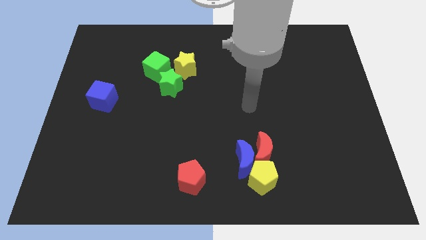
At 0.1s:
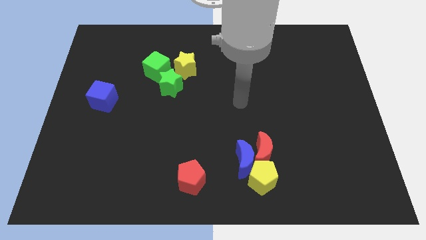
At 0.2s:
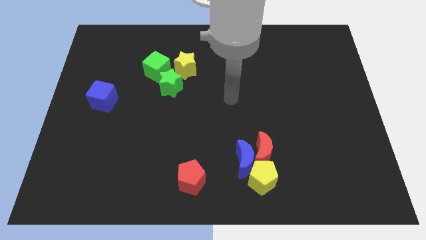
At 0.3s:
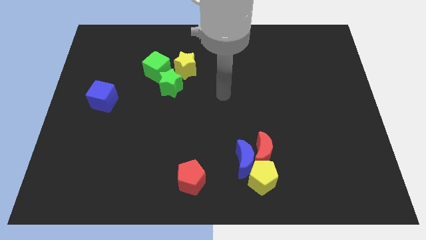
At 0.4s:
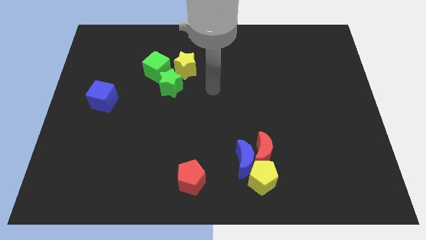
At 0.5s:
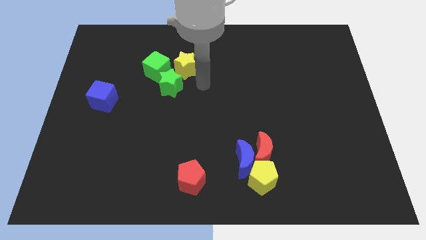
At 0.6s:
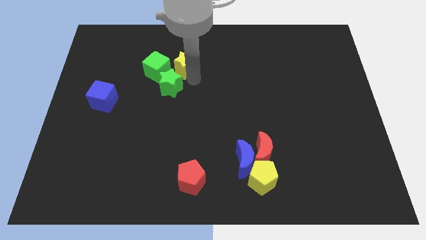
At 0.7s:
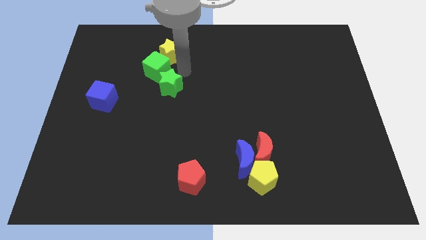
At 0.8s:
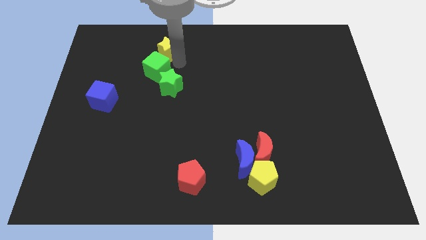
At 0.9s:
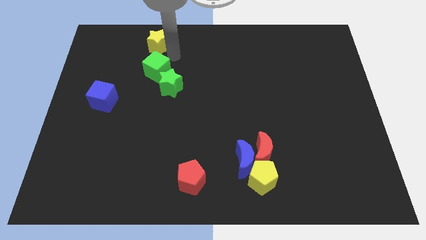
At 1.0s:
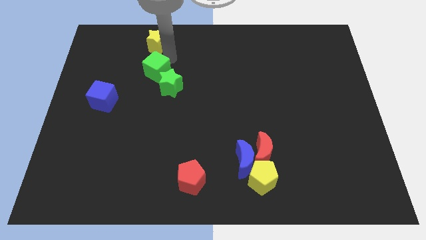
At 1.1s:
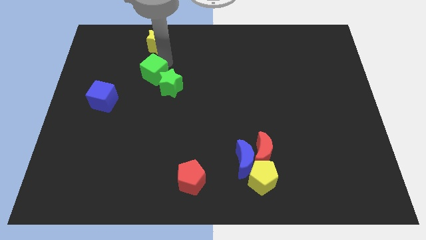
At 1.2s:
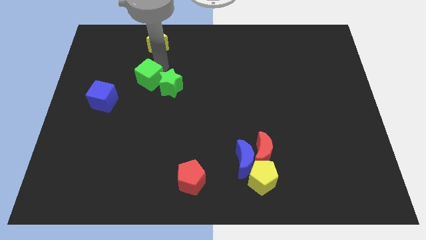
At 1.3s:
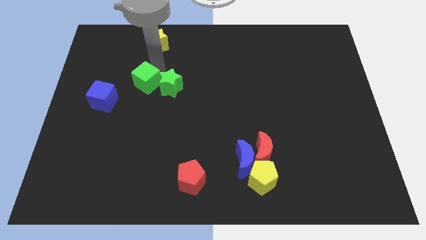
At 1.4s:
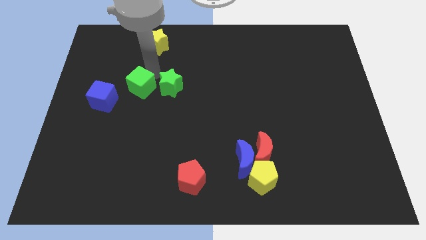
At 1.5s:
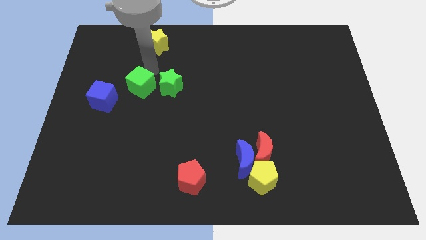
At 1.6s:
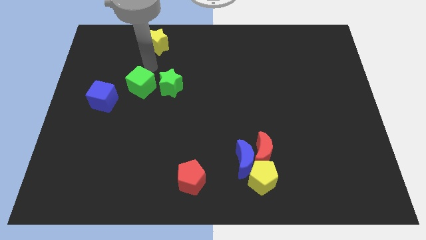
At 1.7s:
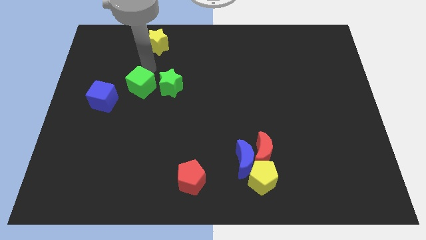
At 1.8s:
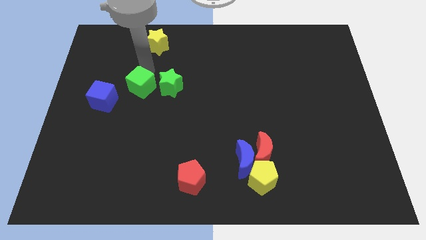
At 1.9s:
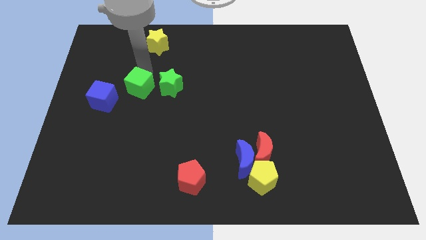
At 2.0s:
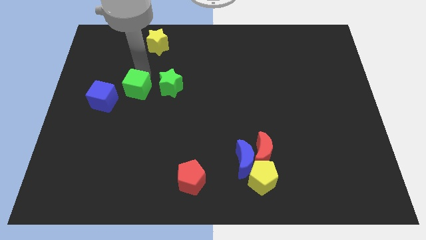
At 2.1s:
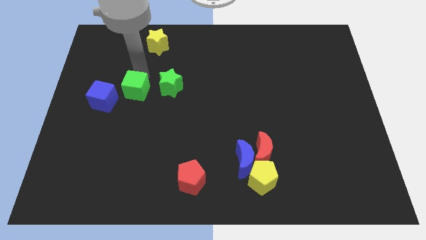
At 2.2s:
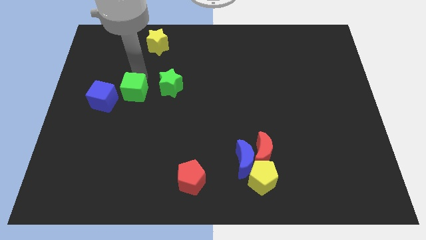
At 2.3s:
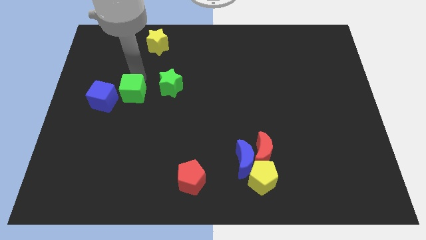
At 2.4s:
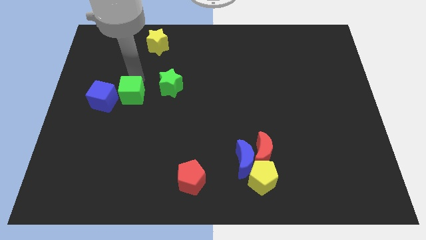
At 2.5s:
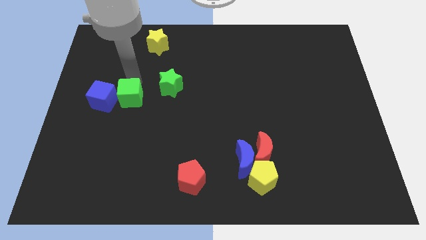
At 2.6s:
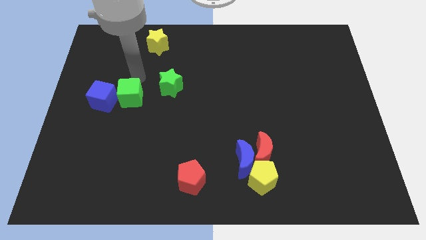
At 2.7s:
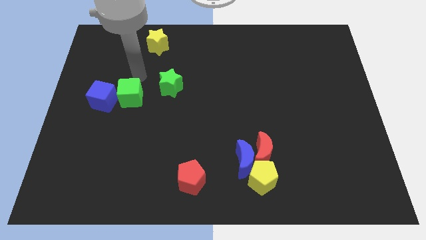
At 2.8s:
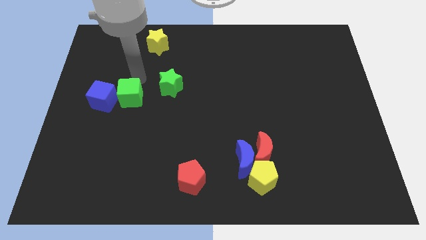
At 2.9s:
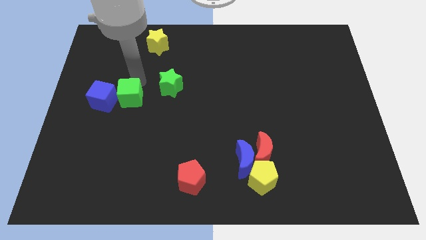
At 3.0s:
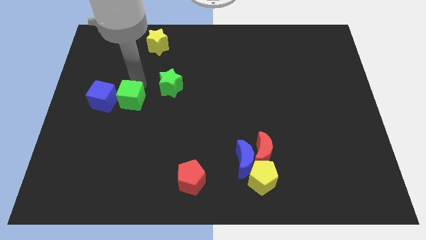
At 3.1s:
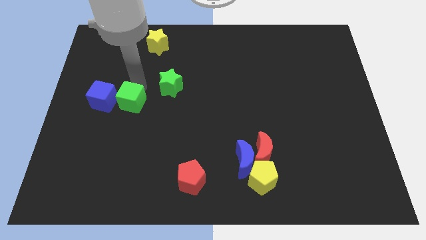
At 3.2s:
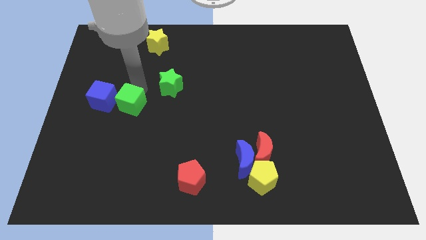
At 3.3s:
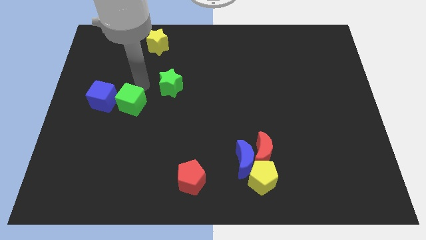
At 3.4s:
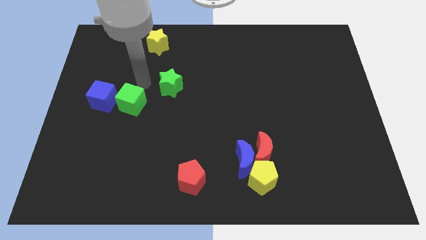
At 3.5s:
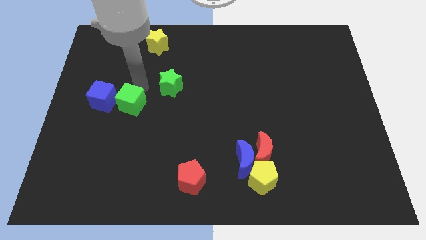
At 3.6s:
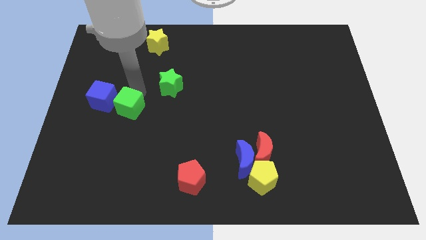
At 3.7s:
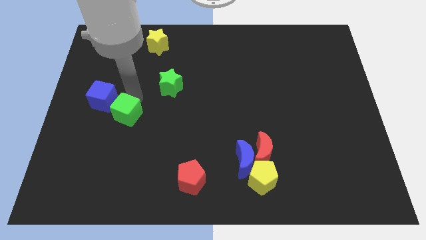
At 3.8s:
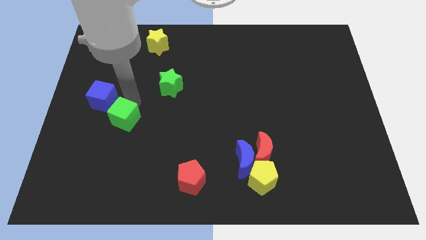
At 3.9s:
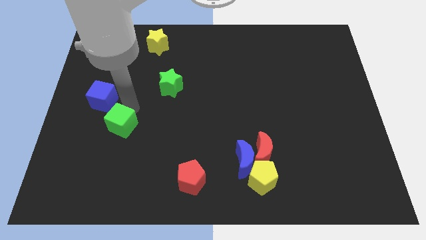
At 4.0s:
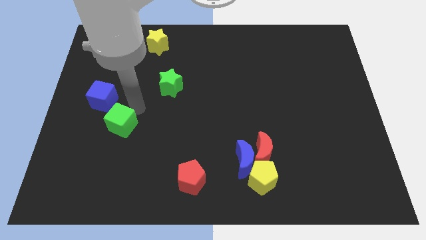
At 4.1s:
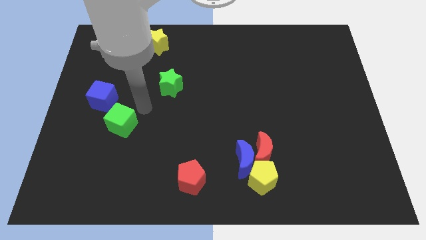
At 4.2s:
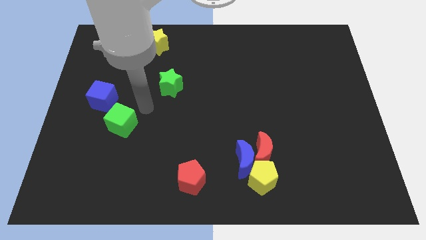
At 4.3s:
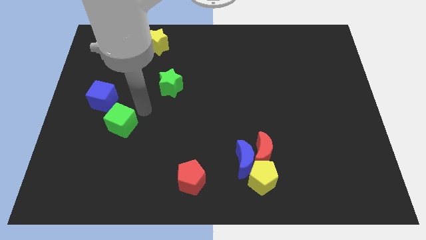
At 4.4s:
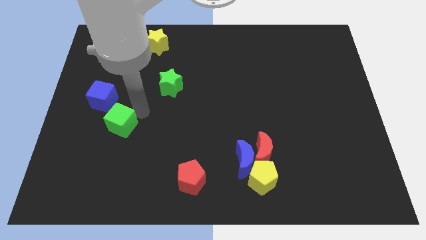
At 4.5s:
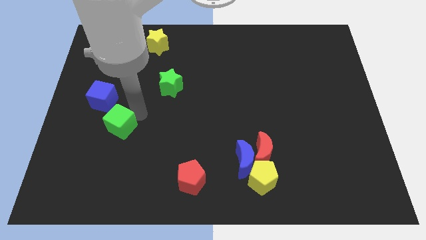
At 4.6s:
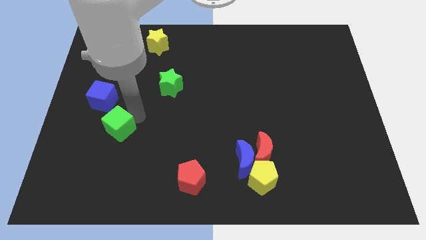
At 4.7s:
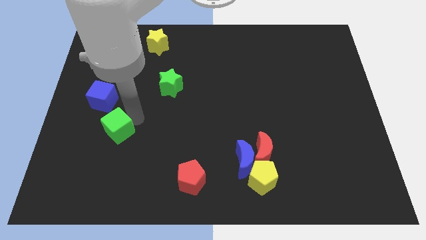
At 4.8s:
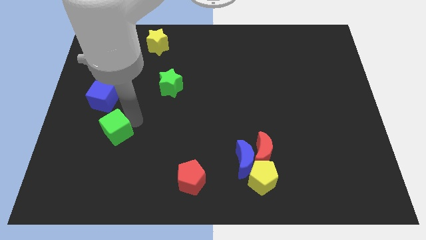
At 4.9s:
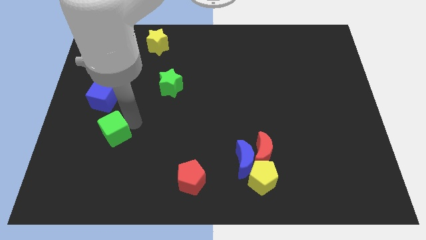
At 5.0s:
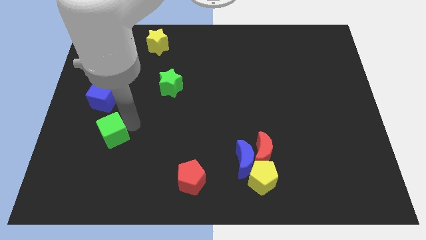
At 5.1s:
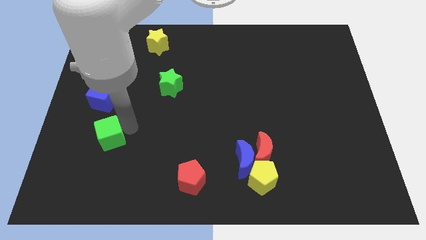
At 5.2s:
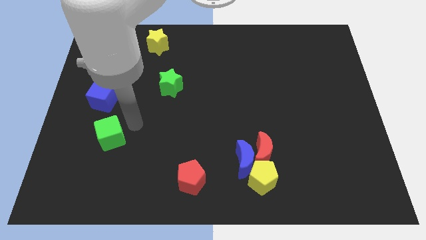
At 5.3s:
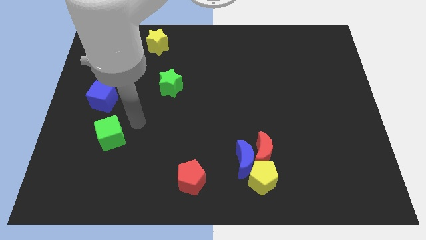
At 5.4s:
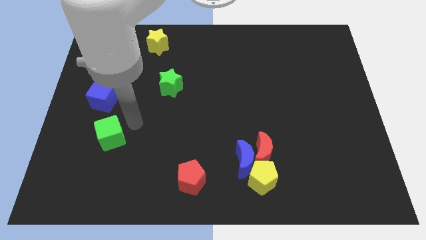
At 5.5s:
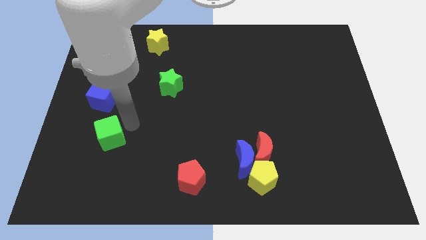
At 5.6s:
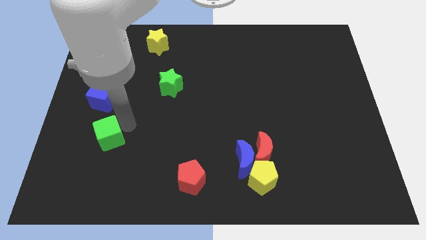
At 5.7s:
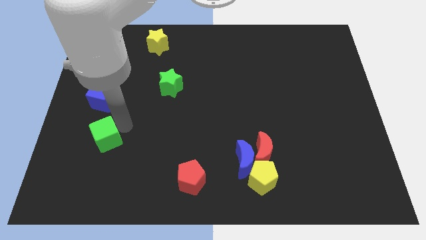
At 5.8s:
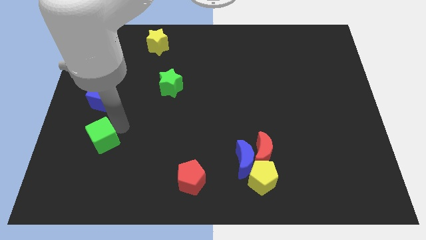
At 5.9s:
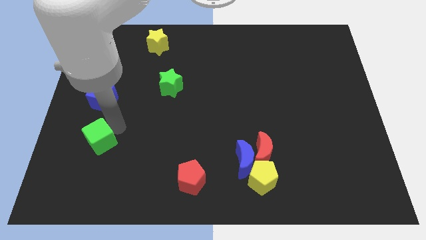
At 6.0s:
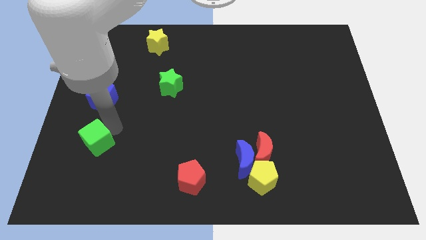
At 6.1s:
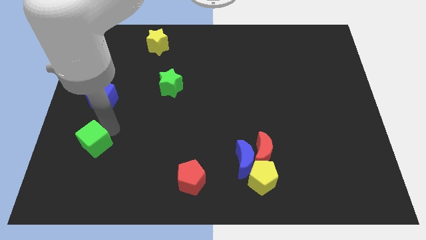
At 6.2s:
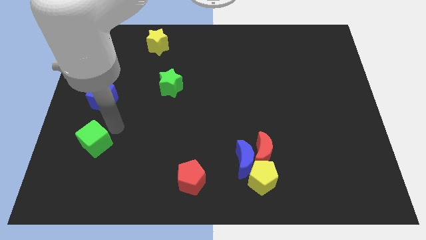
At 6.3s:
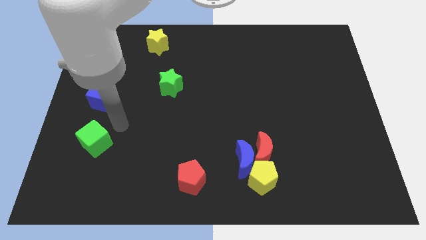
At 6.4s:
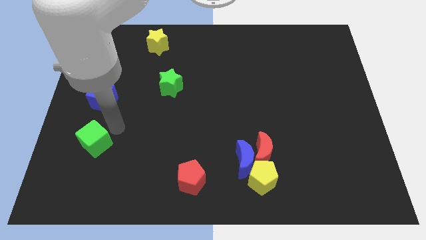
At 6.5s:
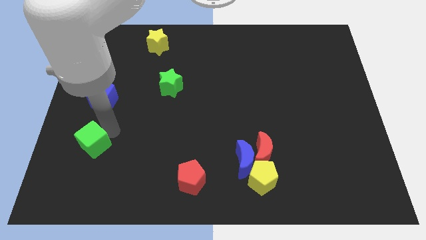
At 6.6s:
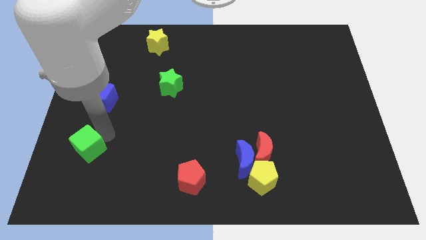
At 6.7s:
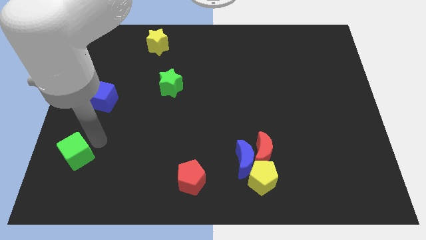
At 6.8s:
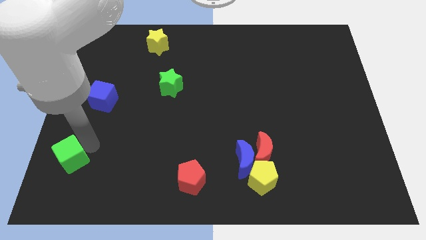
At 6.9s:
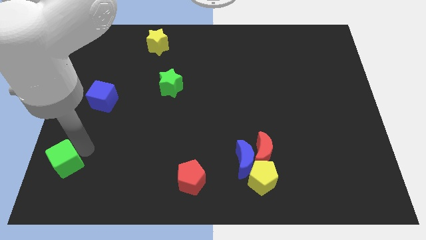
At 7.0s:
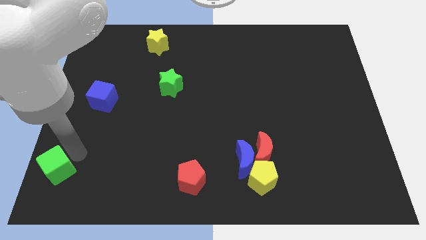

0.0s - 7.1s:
push the green cube to the bottom left
